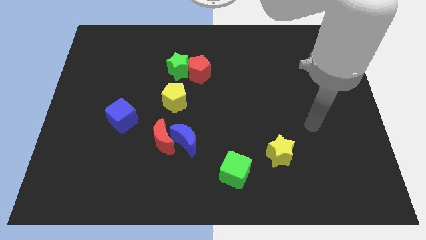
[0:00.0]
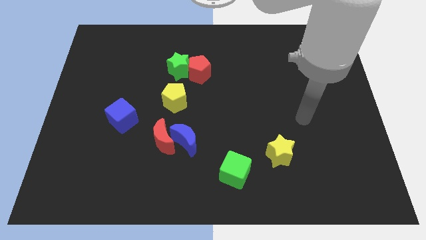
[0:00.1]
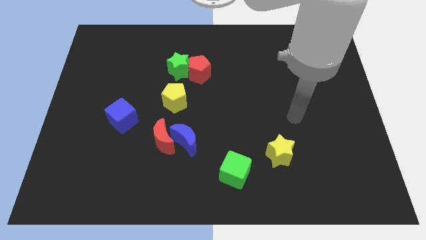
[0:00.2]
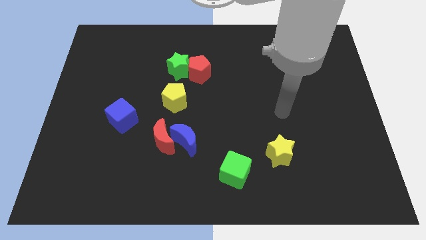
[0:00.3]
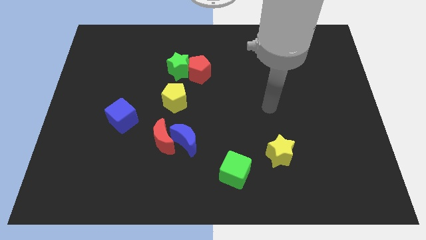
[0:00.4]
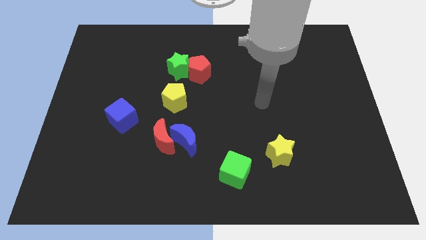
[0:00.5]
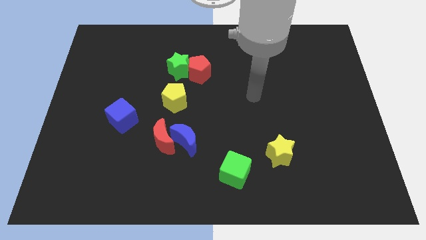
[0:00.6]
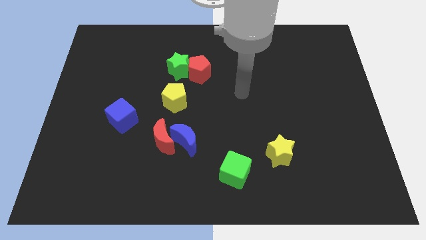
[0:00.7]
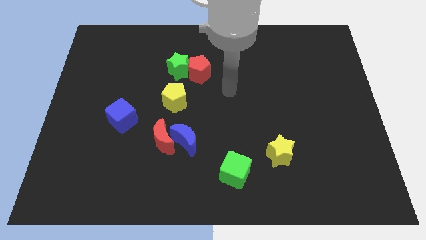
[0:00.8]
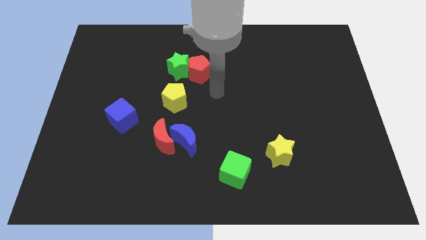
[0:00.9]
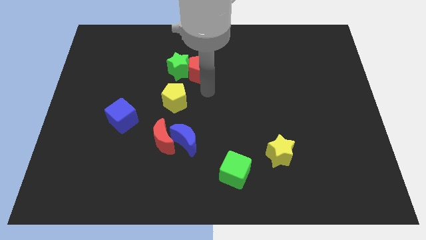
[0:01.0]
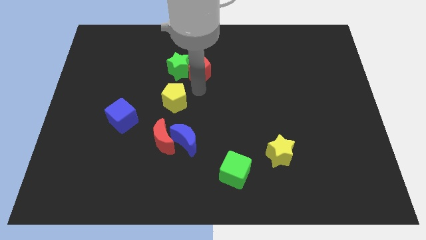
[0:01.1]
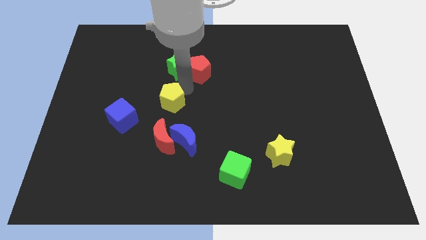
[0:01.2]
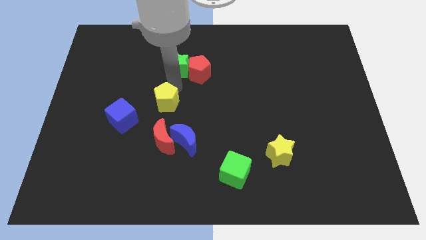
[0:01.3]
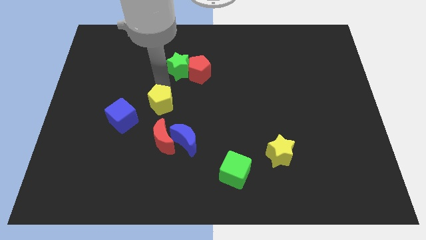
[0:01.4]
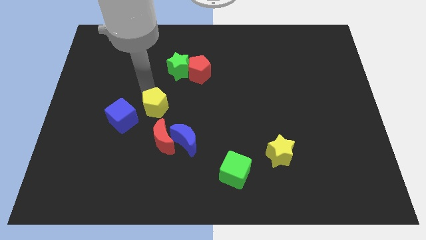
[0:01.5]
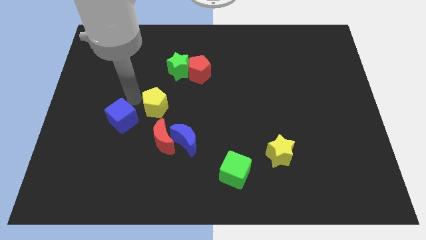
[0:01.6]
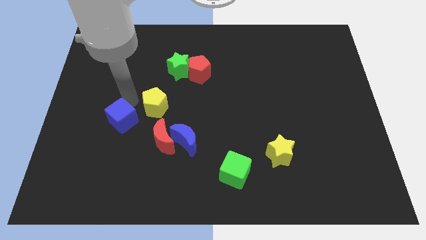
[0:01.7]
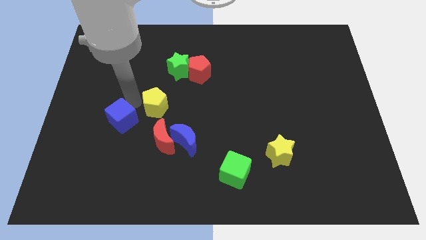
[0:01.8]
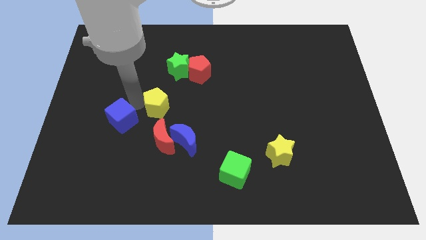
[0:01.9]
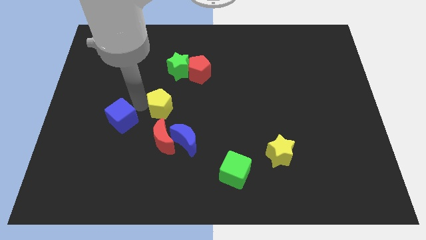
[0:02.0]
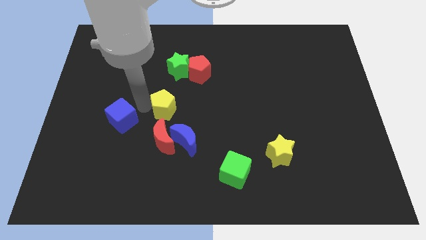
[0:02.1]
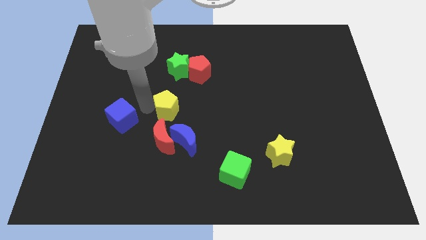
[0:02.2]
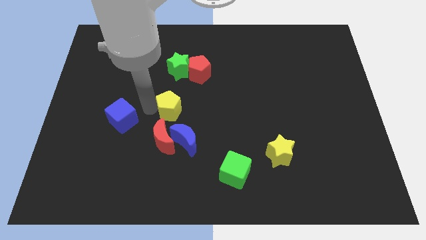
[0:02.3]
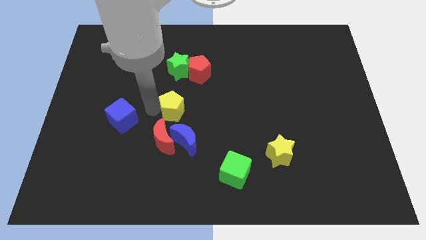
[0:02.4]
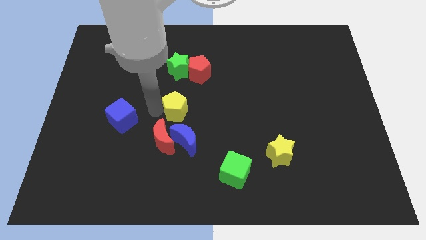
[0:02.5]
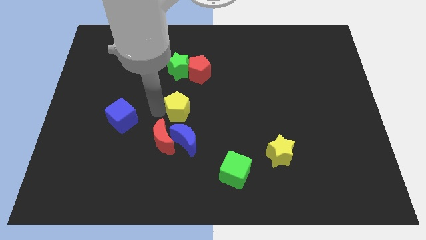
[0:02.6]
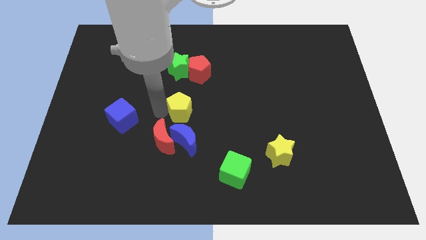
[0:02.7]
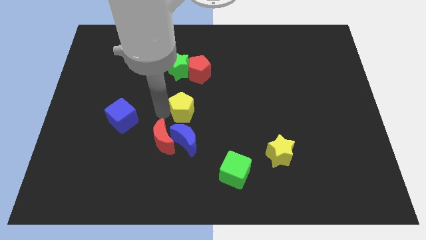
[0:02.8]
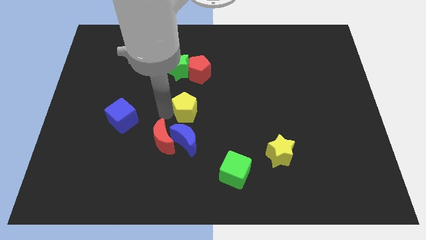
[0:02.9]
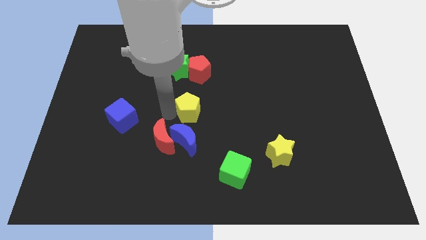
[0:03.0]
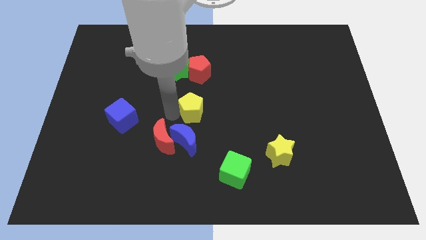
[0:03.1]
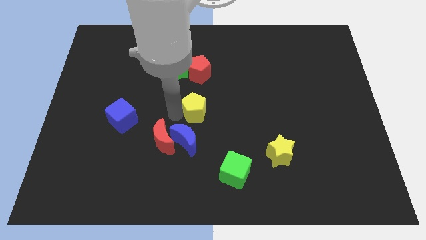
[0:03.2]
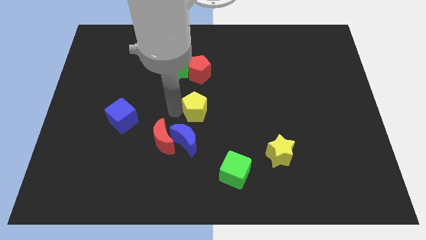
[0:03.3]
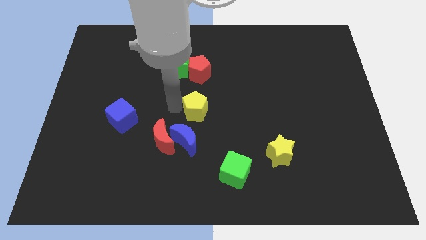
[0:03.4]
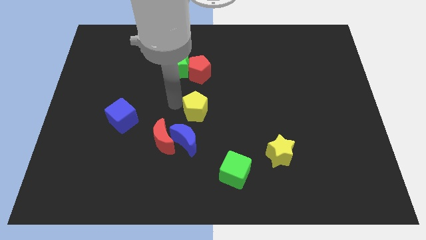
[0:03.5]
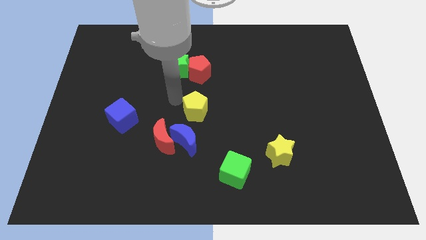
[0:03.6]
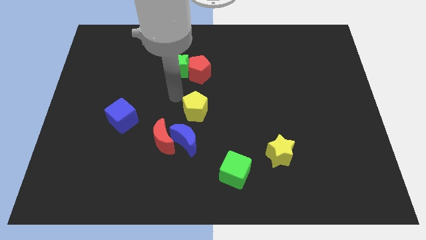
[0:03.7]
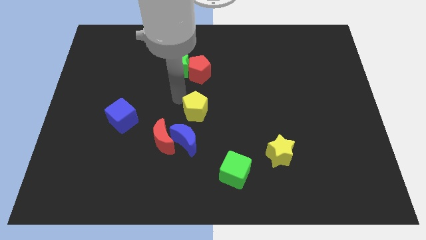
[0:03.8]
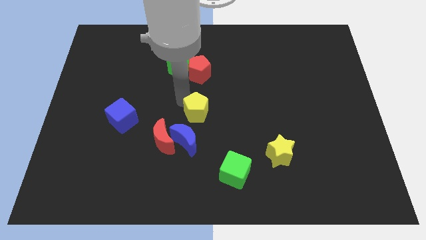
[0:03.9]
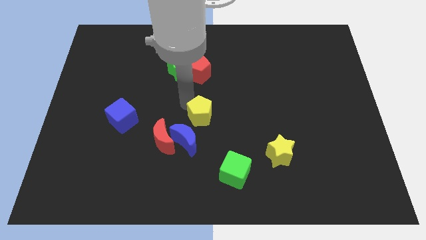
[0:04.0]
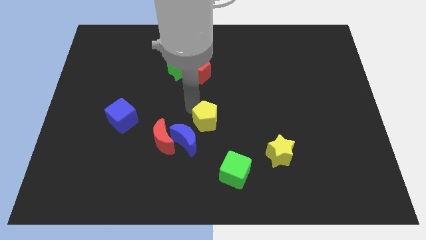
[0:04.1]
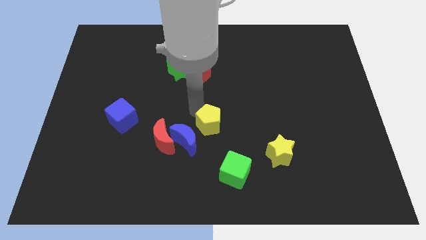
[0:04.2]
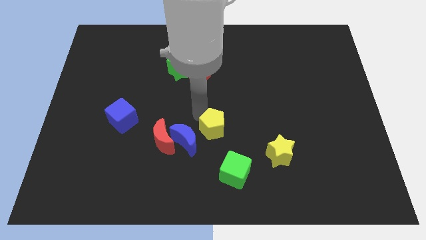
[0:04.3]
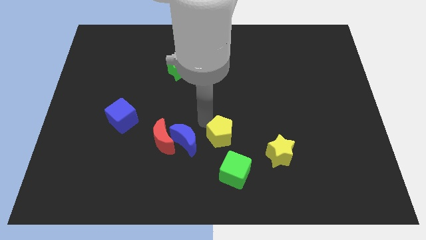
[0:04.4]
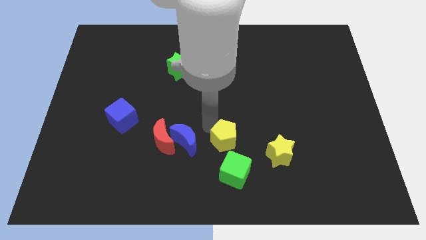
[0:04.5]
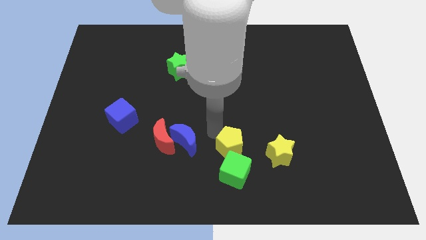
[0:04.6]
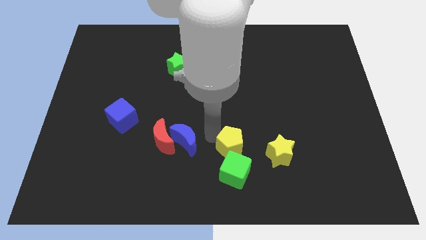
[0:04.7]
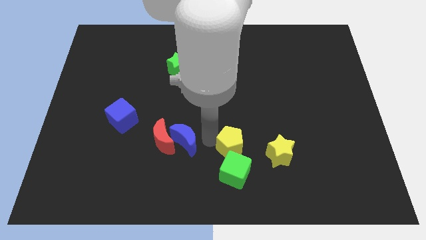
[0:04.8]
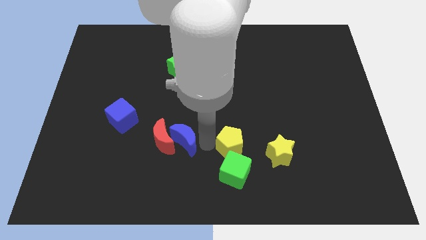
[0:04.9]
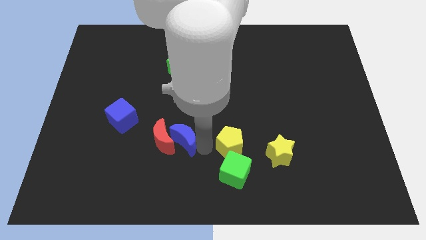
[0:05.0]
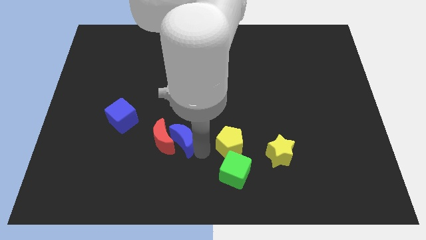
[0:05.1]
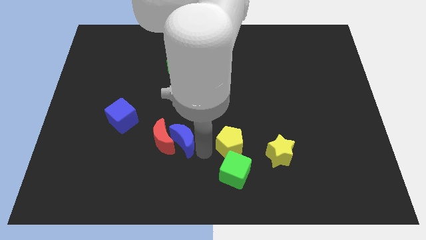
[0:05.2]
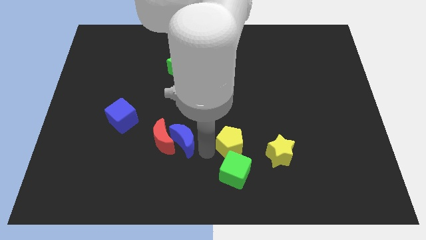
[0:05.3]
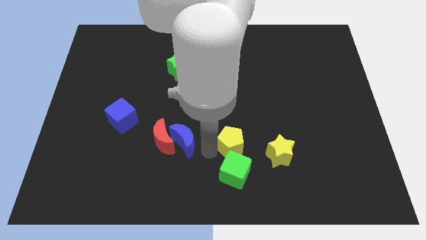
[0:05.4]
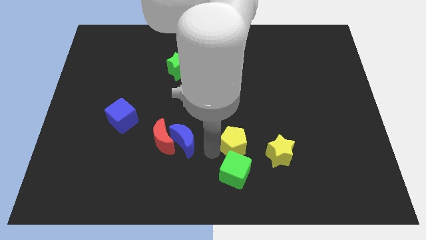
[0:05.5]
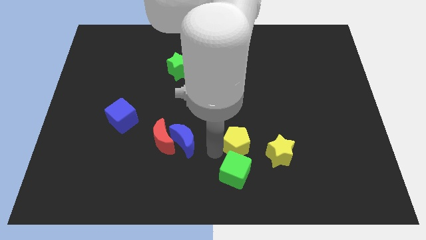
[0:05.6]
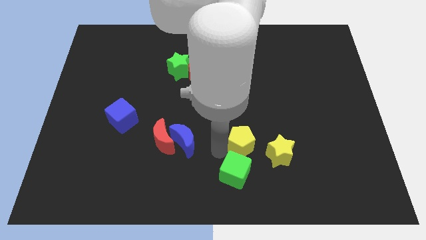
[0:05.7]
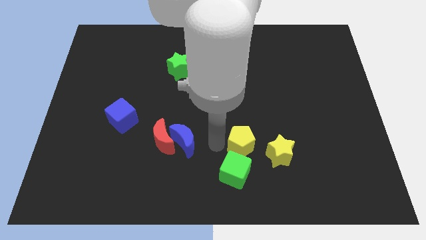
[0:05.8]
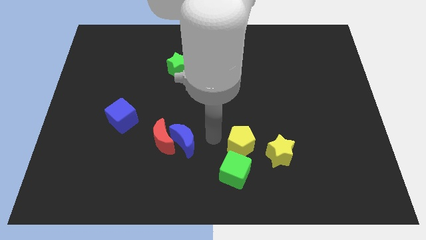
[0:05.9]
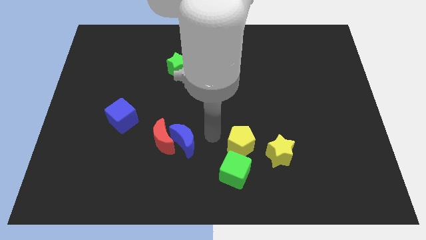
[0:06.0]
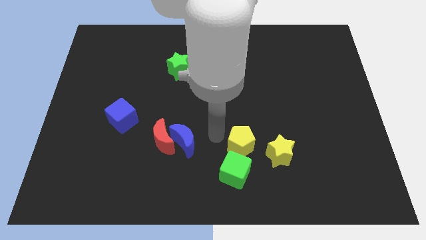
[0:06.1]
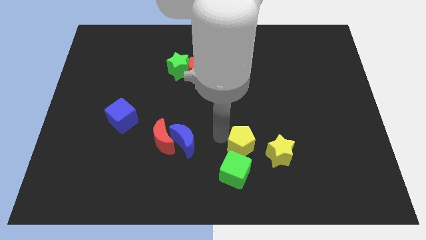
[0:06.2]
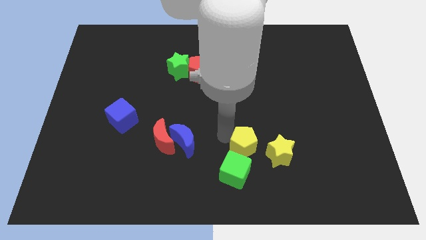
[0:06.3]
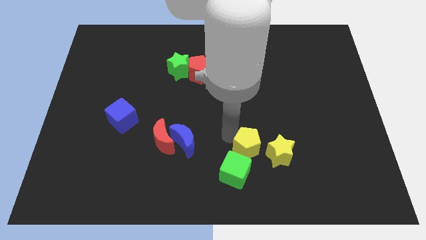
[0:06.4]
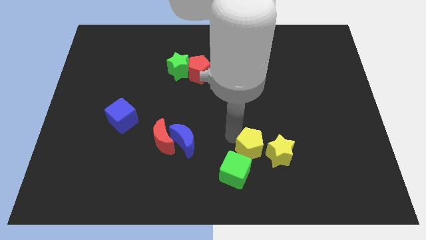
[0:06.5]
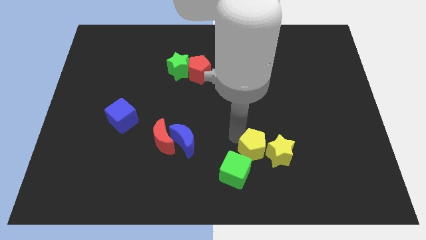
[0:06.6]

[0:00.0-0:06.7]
move the yellow pentagon next to the yellow star
